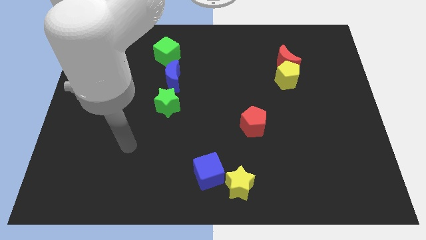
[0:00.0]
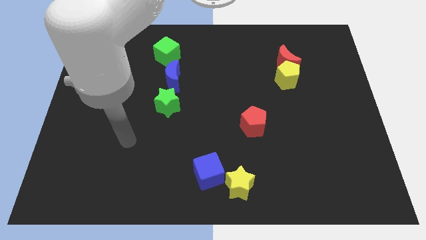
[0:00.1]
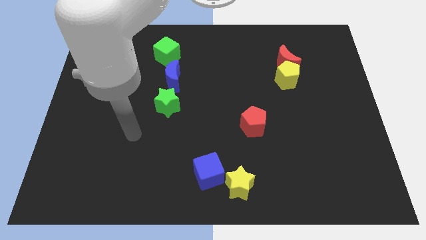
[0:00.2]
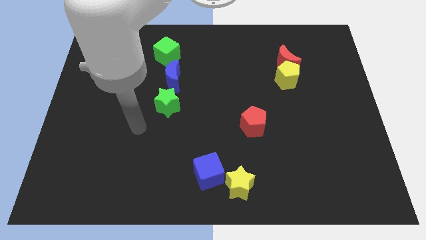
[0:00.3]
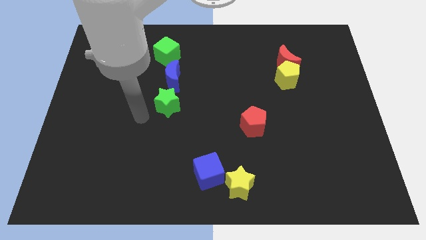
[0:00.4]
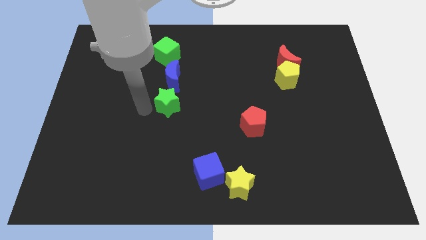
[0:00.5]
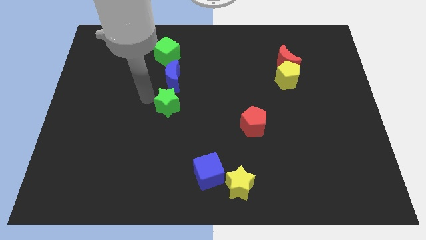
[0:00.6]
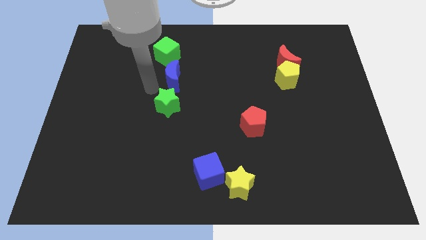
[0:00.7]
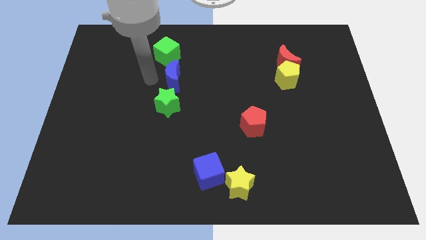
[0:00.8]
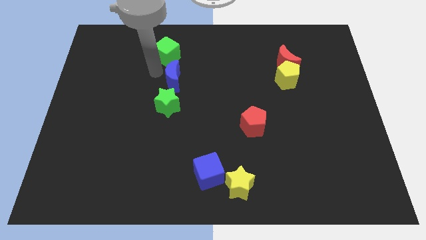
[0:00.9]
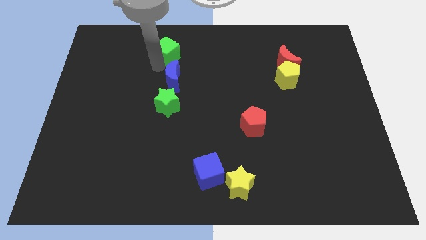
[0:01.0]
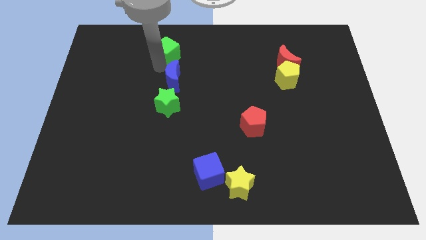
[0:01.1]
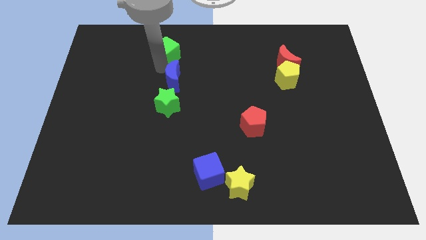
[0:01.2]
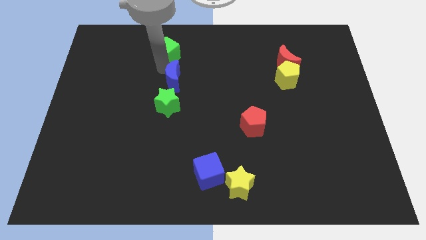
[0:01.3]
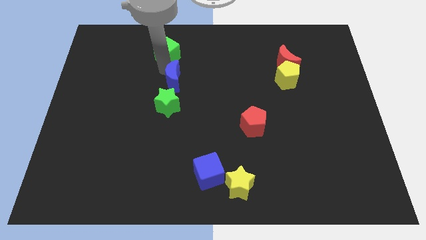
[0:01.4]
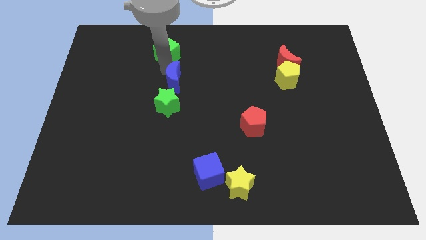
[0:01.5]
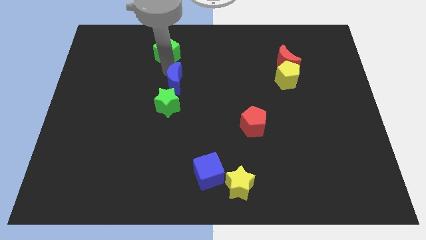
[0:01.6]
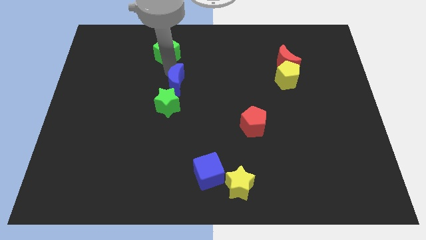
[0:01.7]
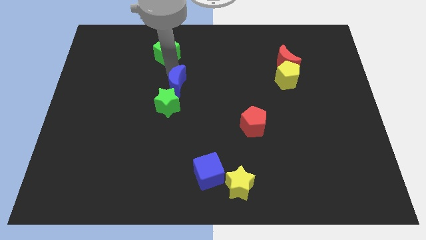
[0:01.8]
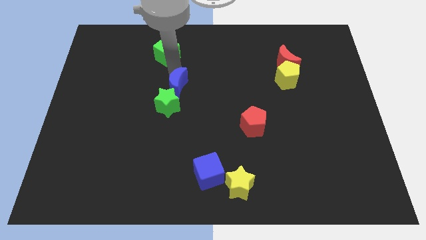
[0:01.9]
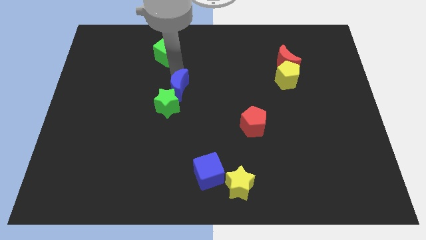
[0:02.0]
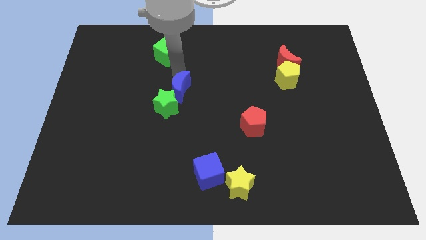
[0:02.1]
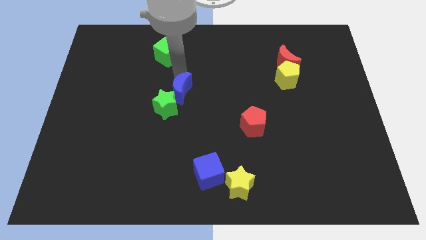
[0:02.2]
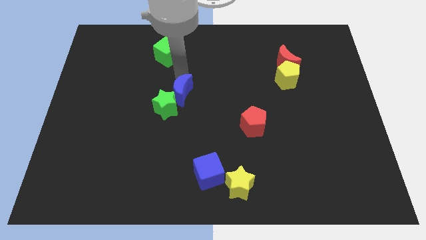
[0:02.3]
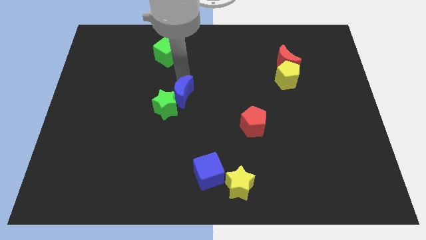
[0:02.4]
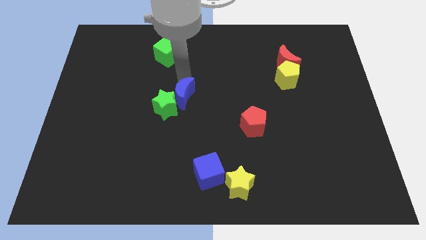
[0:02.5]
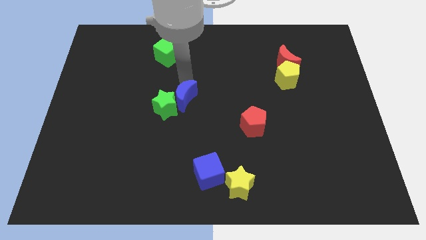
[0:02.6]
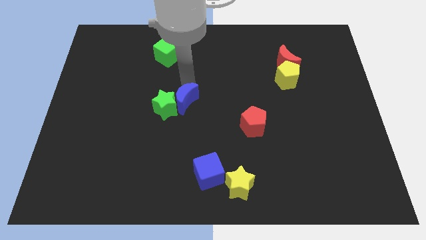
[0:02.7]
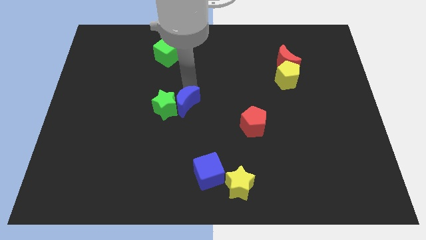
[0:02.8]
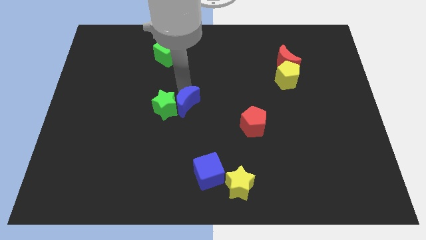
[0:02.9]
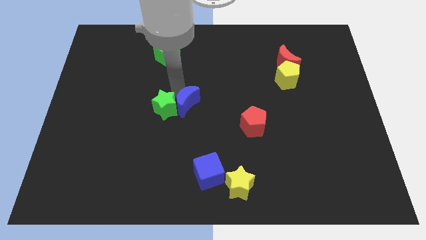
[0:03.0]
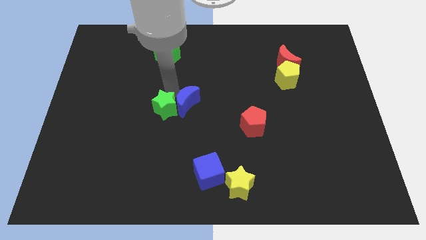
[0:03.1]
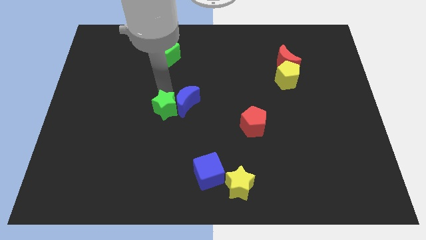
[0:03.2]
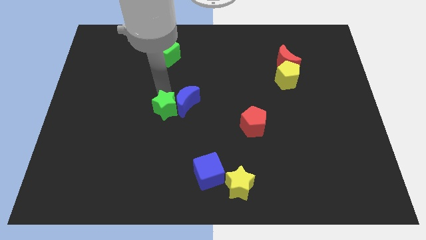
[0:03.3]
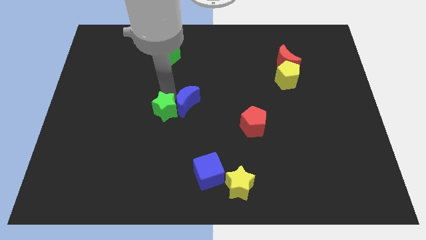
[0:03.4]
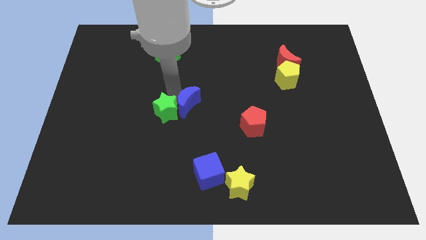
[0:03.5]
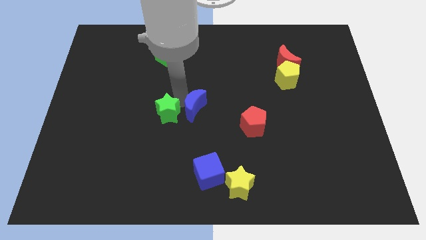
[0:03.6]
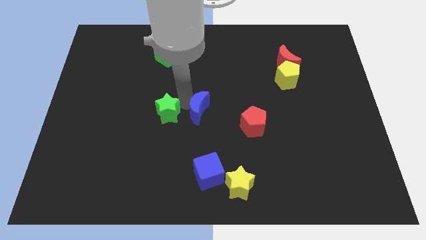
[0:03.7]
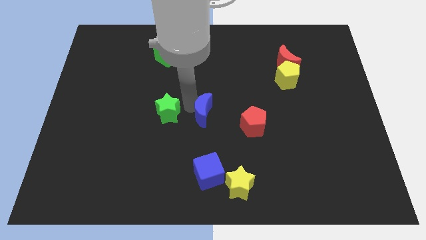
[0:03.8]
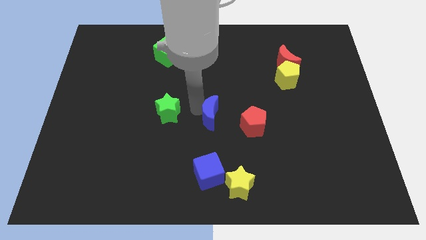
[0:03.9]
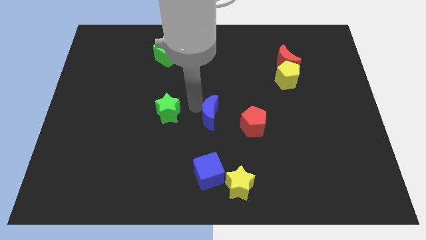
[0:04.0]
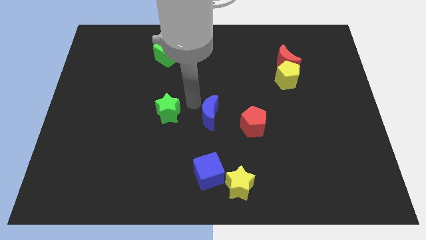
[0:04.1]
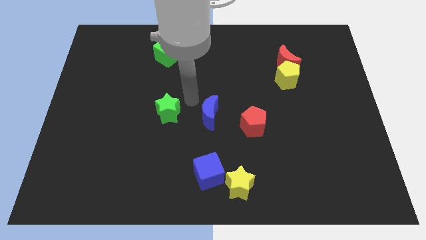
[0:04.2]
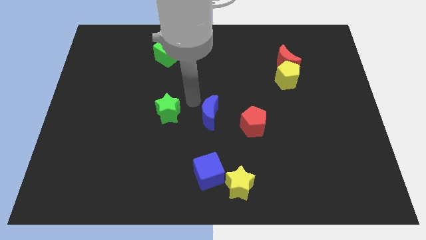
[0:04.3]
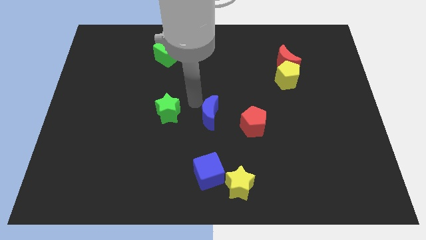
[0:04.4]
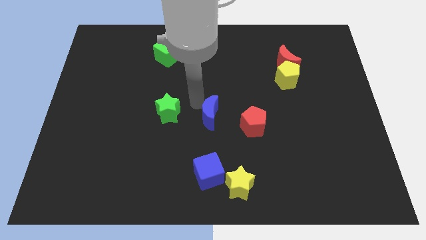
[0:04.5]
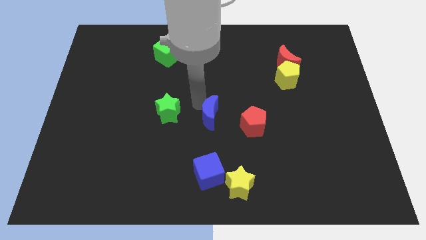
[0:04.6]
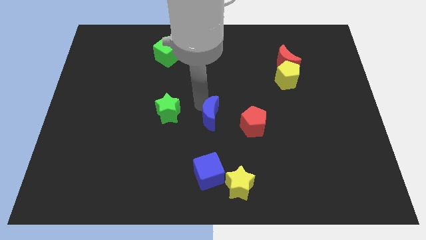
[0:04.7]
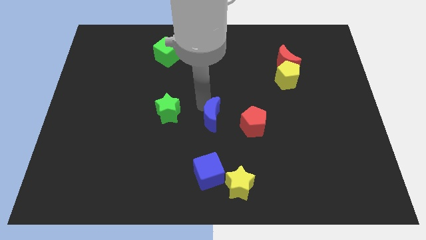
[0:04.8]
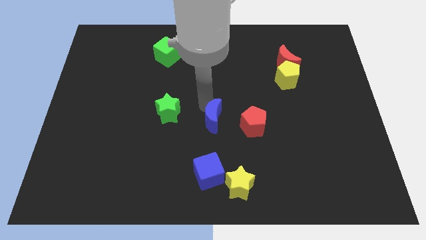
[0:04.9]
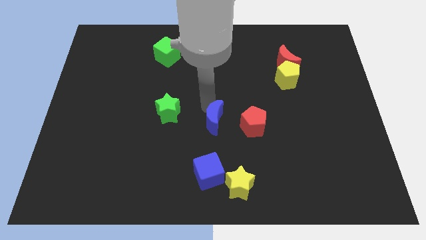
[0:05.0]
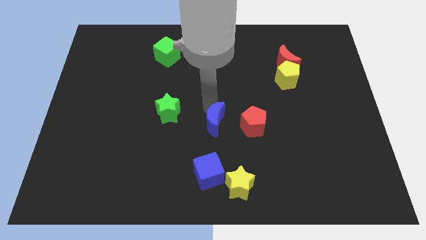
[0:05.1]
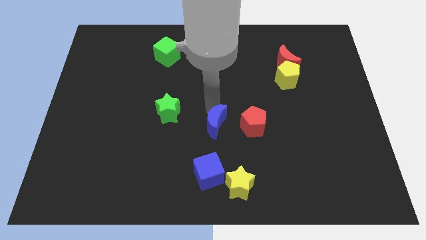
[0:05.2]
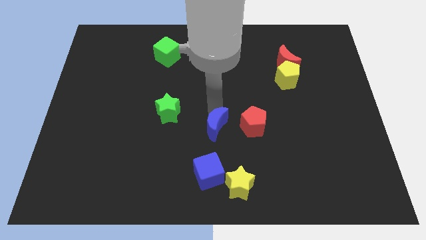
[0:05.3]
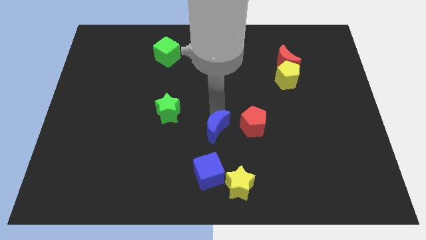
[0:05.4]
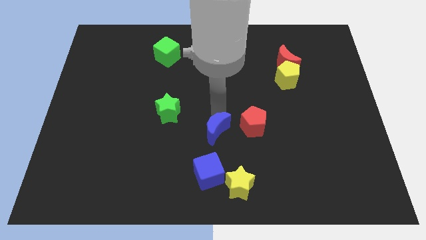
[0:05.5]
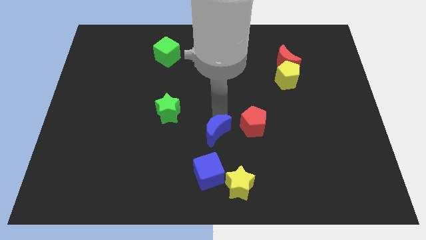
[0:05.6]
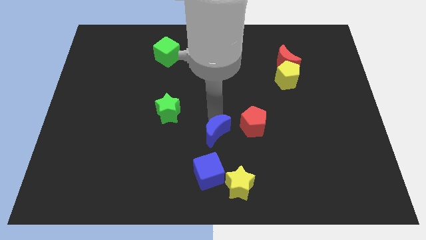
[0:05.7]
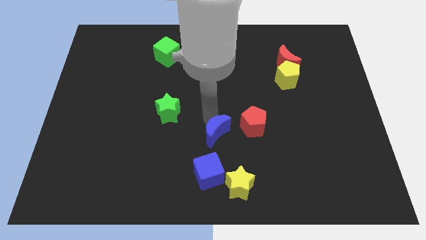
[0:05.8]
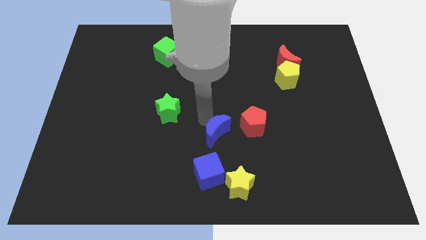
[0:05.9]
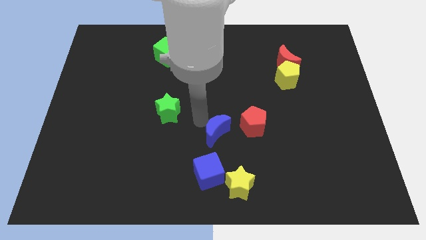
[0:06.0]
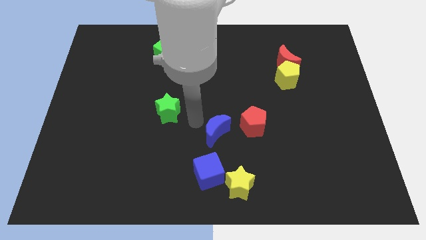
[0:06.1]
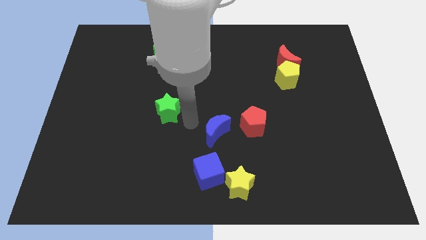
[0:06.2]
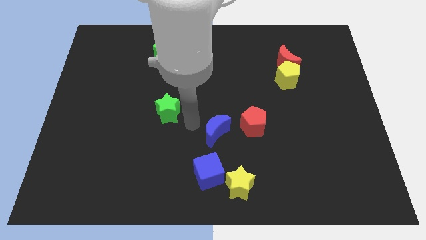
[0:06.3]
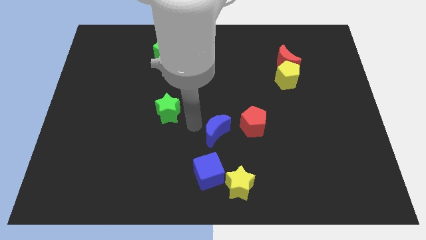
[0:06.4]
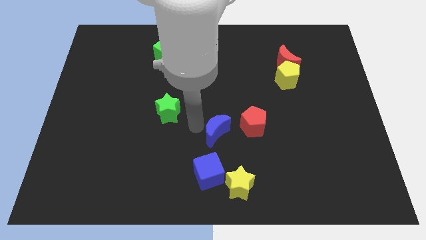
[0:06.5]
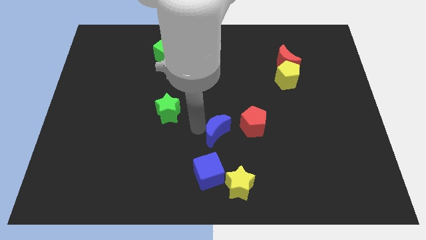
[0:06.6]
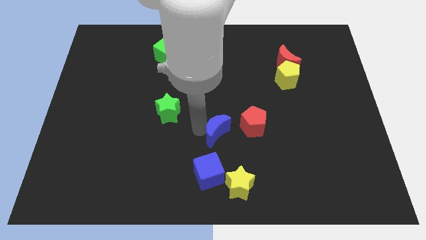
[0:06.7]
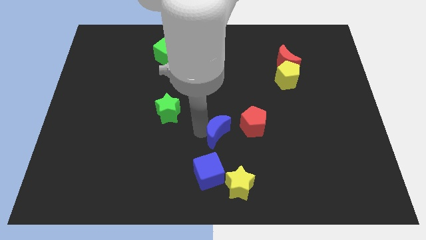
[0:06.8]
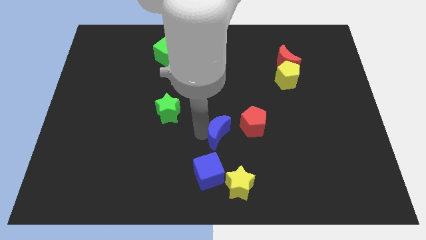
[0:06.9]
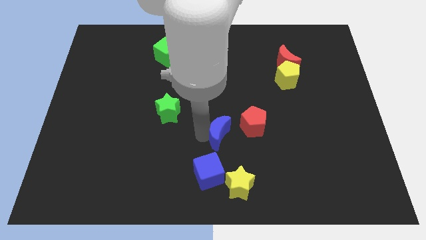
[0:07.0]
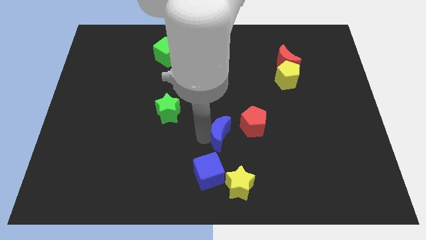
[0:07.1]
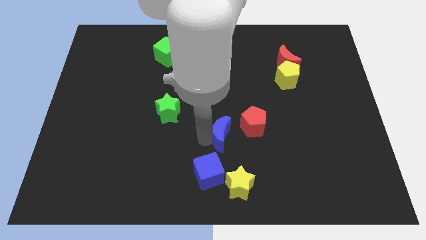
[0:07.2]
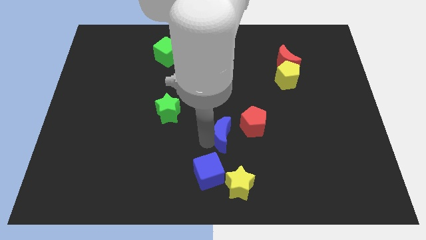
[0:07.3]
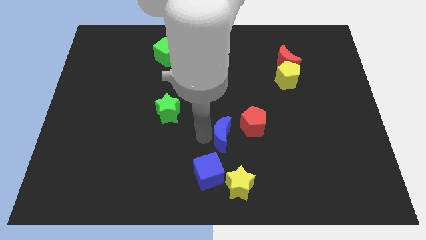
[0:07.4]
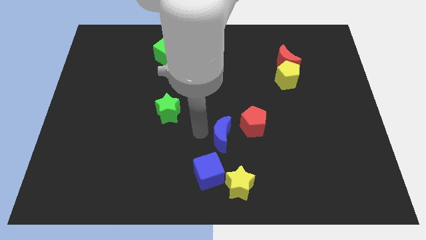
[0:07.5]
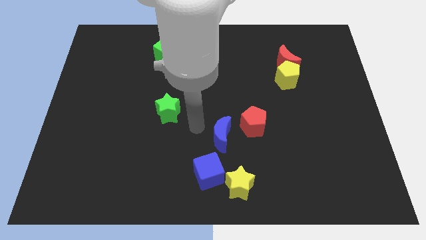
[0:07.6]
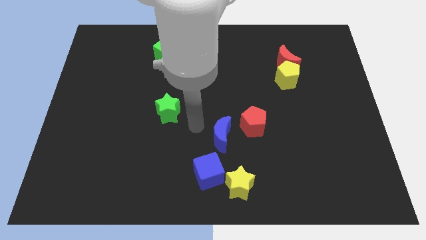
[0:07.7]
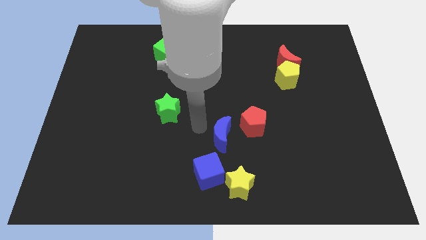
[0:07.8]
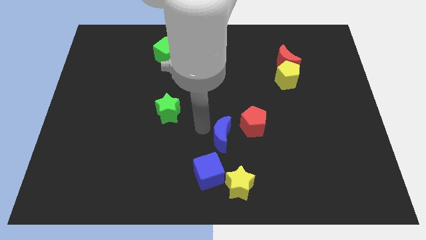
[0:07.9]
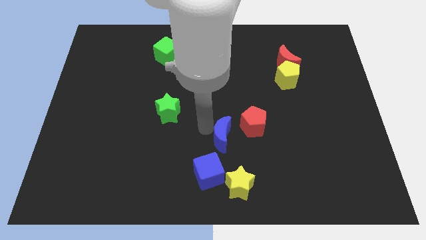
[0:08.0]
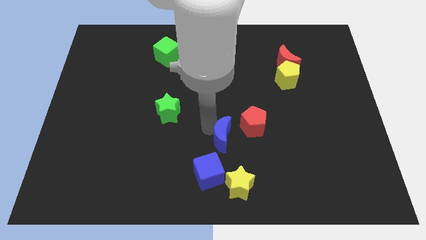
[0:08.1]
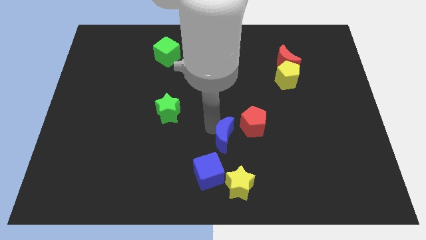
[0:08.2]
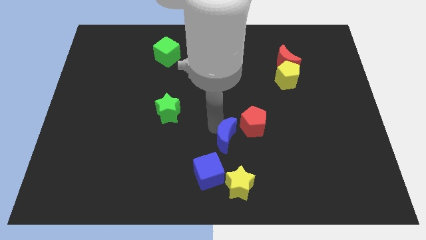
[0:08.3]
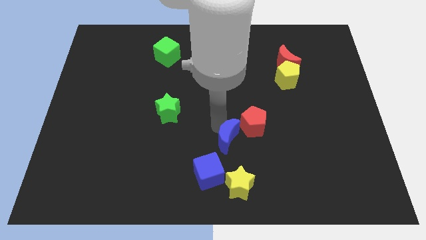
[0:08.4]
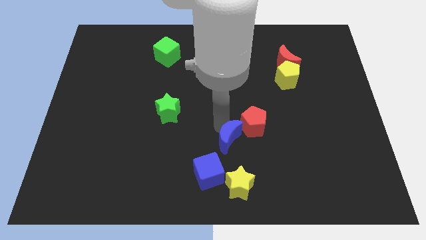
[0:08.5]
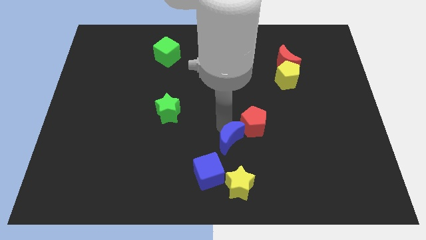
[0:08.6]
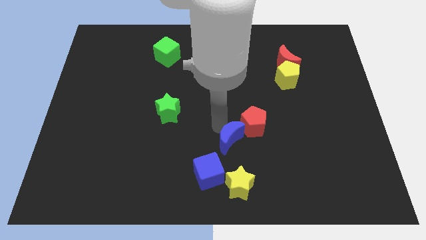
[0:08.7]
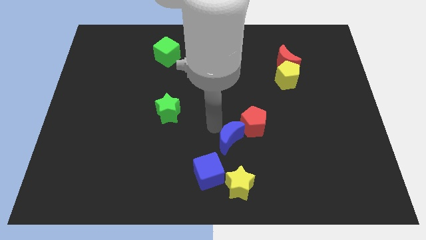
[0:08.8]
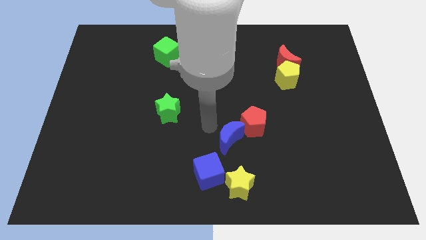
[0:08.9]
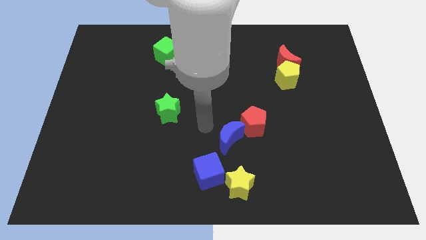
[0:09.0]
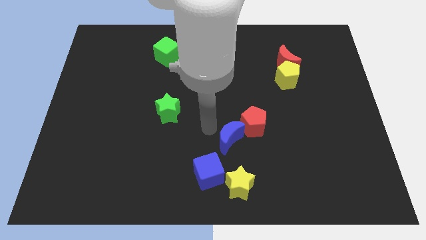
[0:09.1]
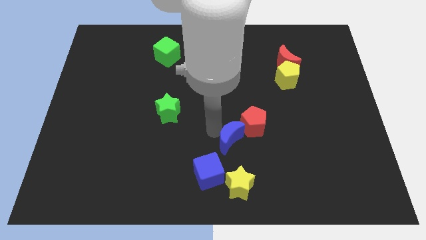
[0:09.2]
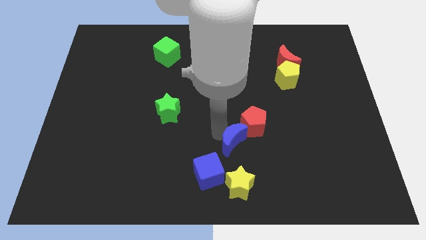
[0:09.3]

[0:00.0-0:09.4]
put the blue moon to the bottom of the red pentagon
